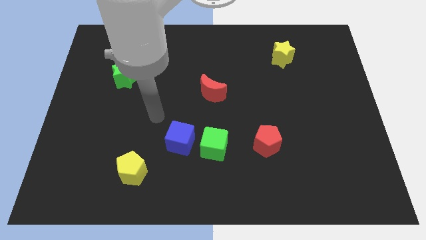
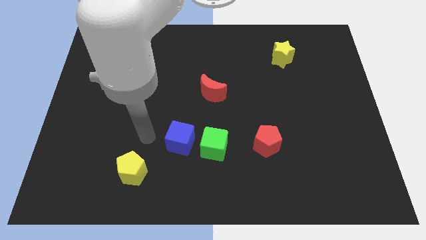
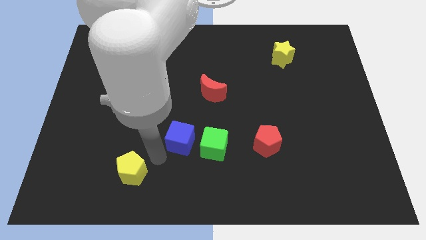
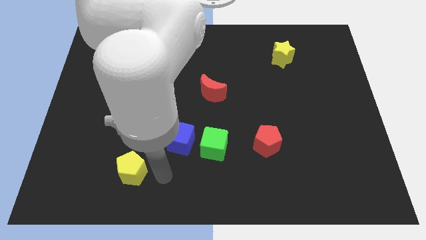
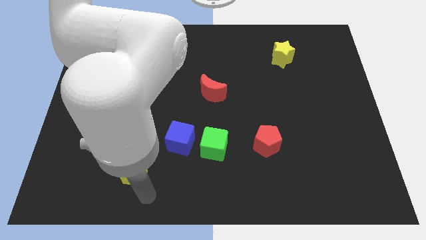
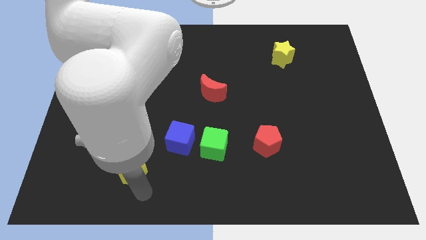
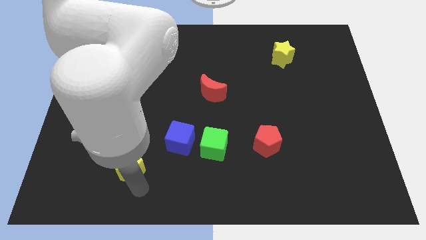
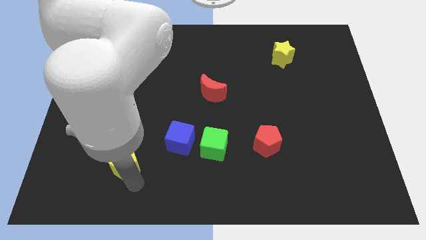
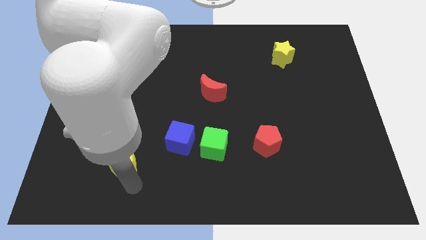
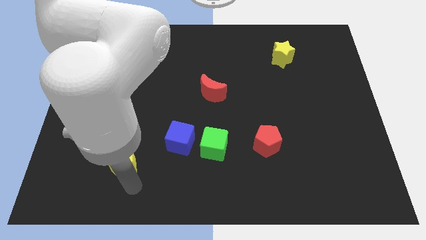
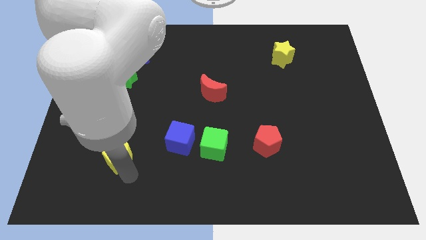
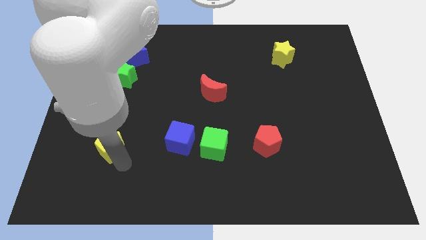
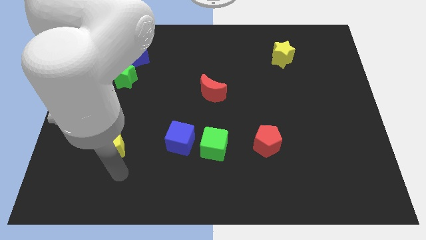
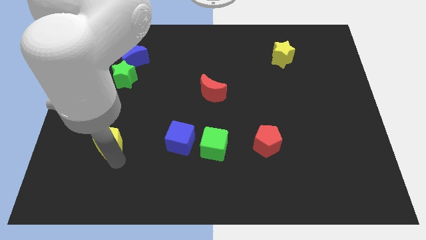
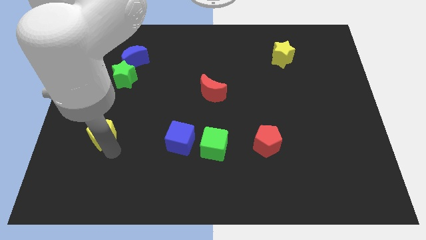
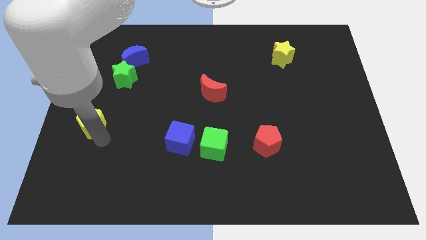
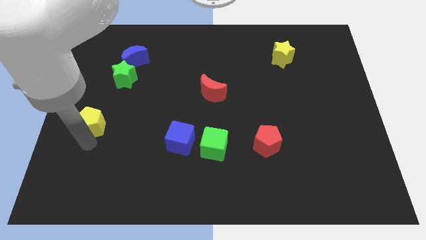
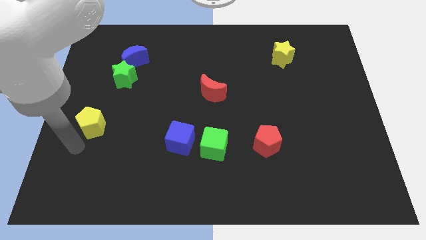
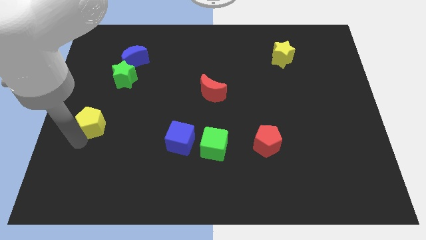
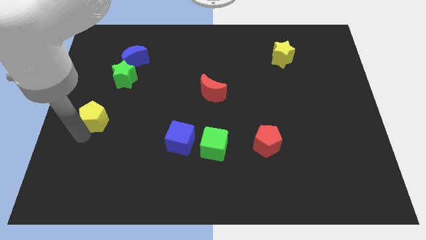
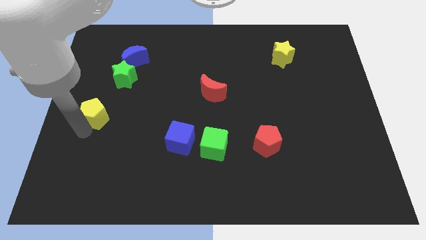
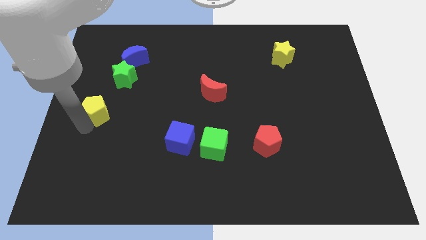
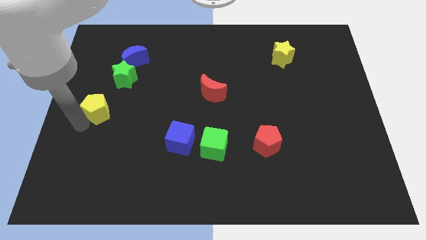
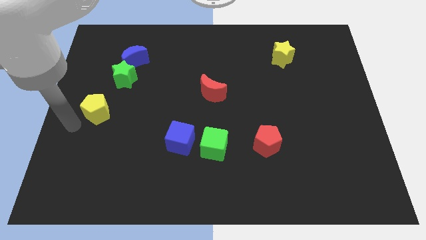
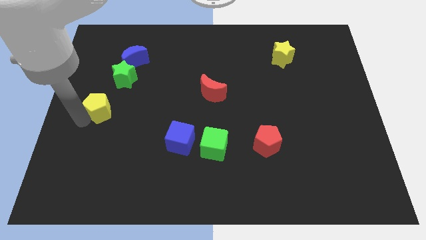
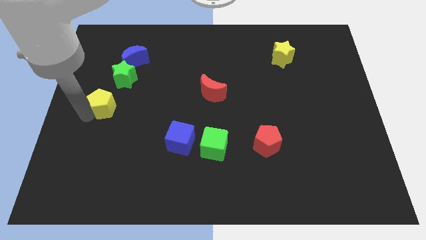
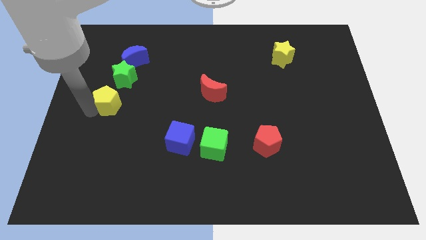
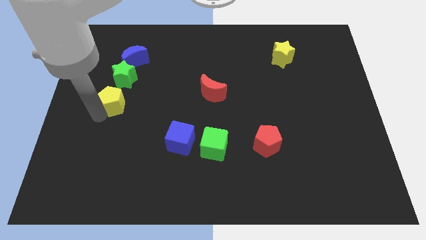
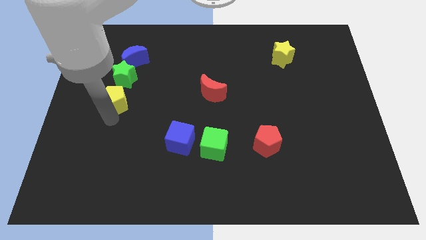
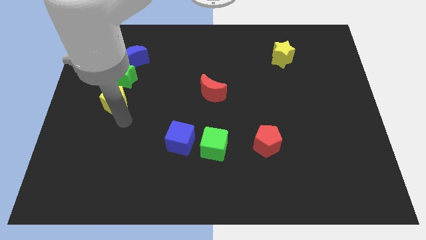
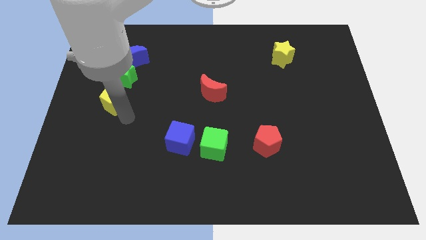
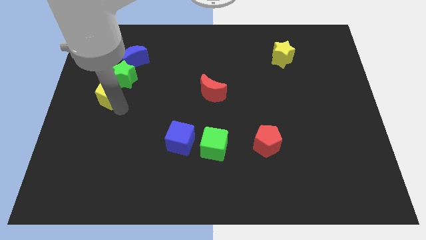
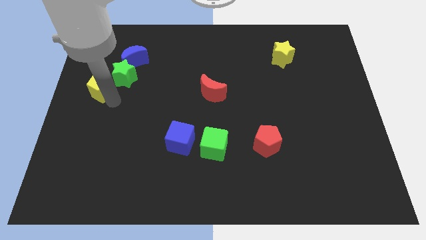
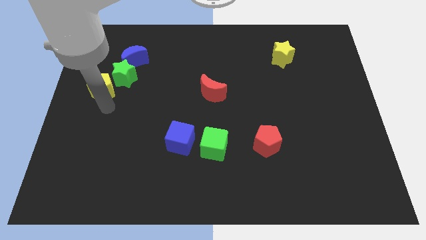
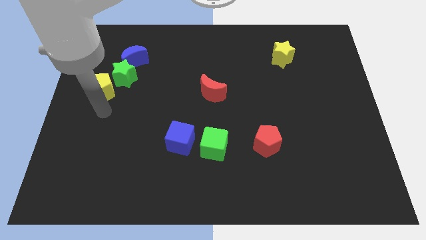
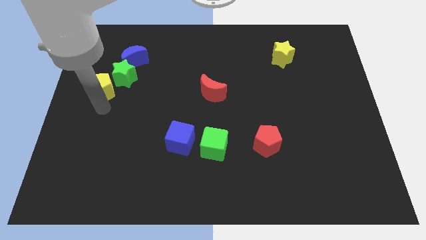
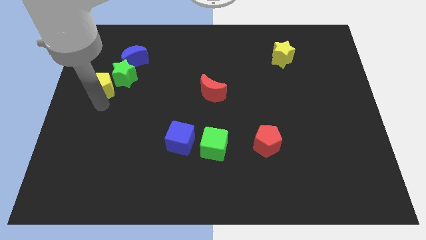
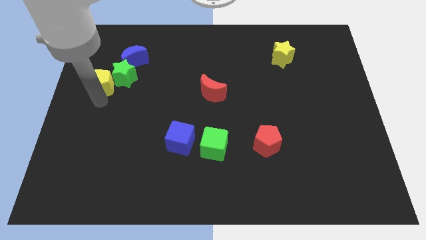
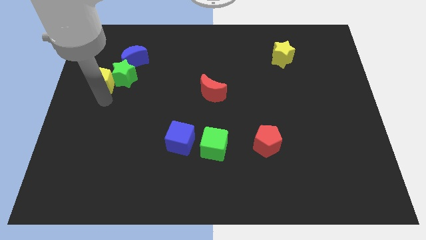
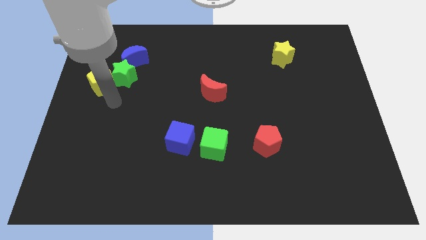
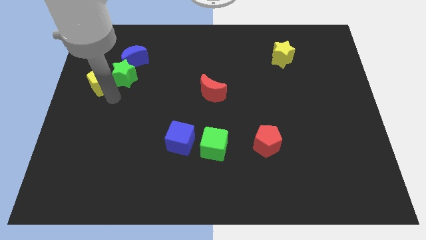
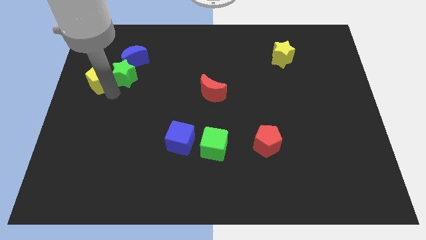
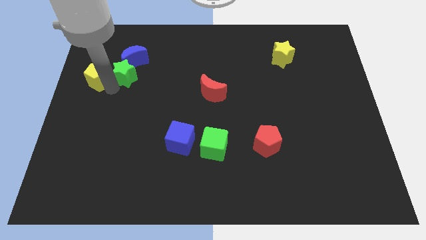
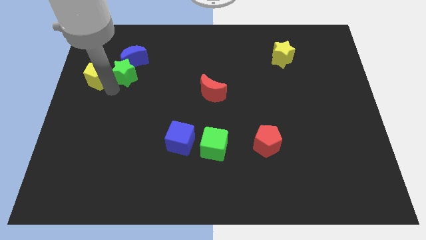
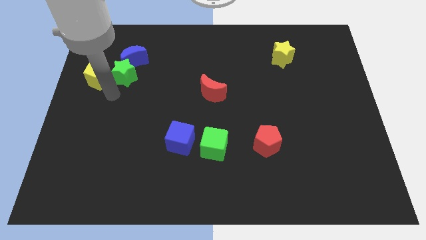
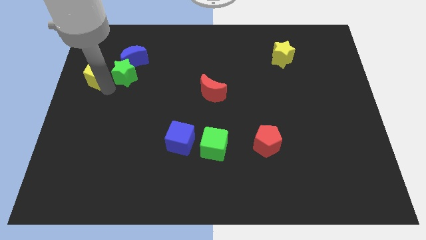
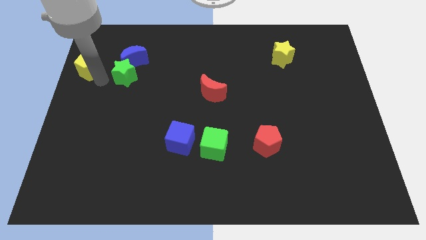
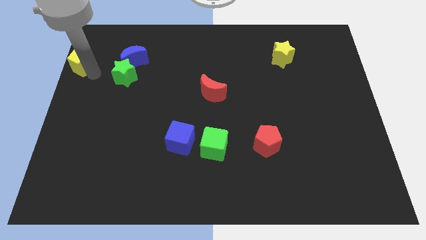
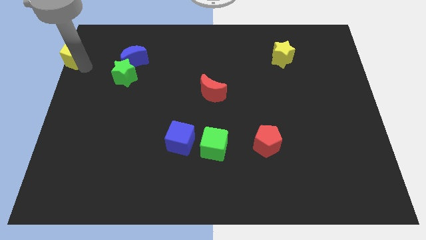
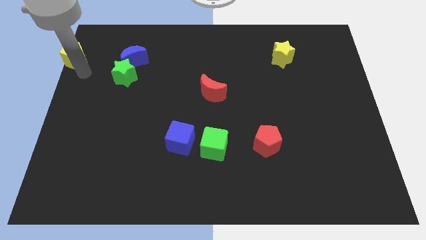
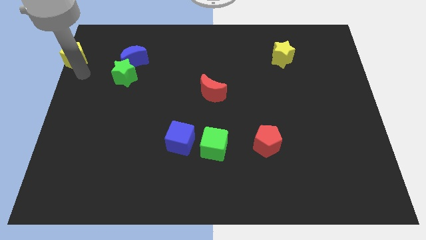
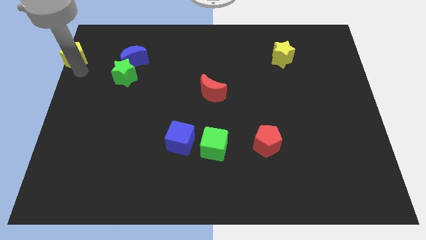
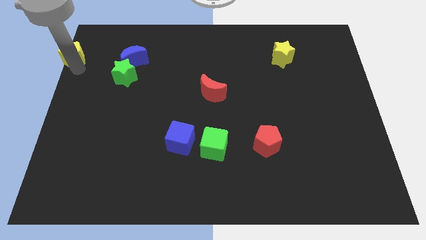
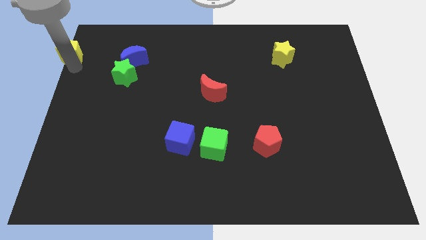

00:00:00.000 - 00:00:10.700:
slide the yellow pentagon to the top left of the board
